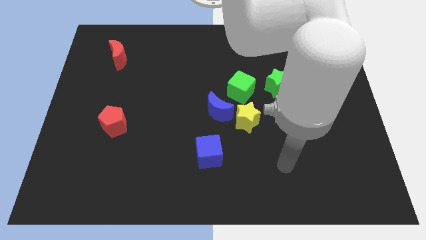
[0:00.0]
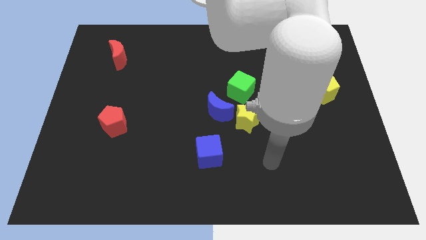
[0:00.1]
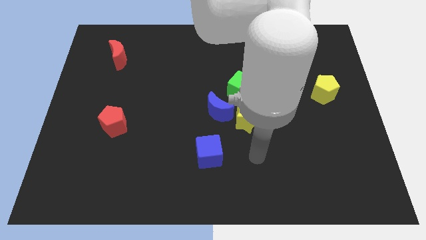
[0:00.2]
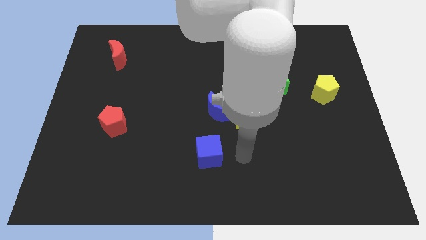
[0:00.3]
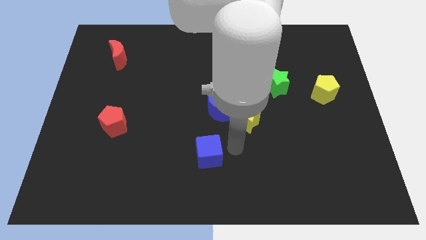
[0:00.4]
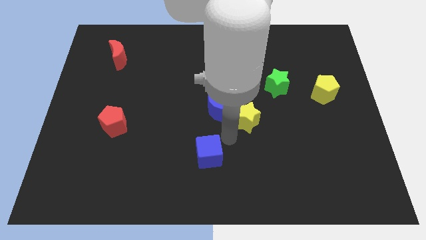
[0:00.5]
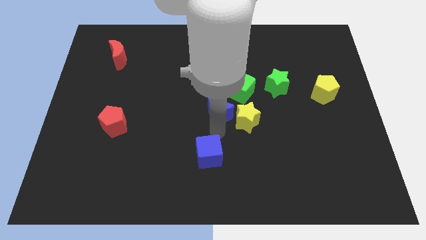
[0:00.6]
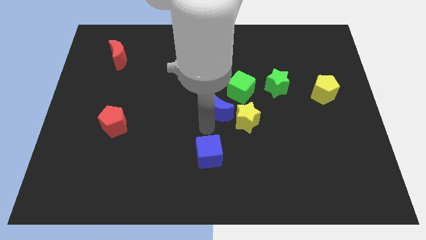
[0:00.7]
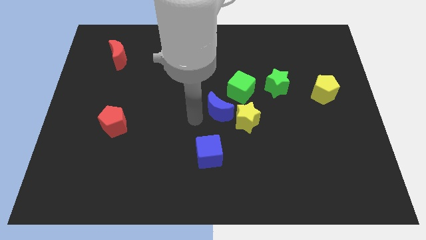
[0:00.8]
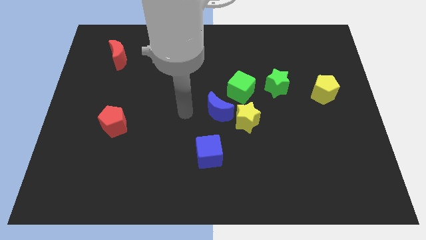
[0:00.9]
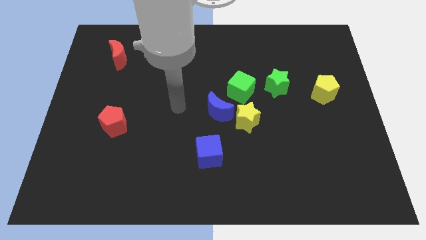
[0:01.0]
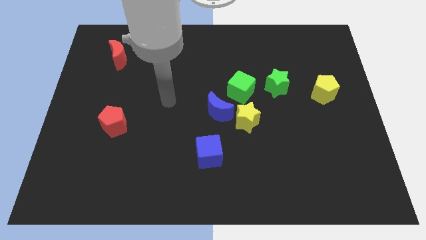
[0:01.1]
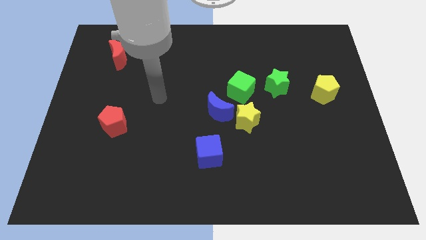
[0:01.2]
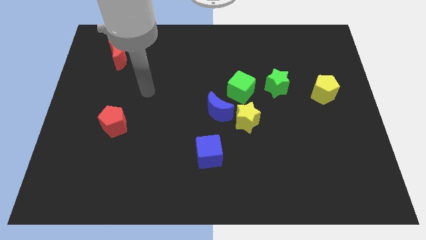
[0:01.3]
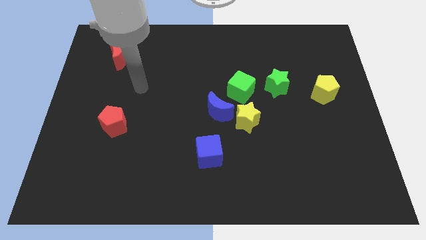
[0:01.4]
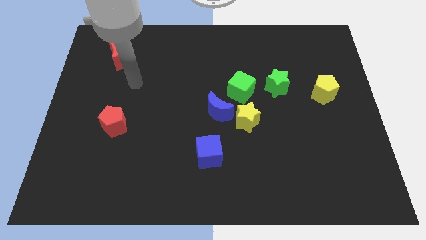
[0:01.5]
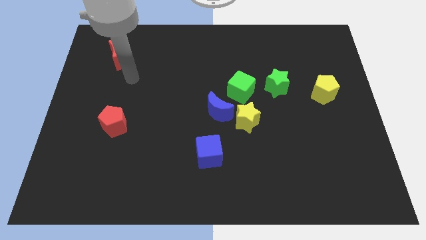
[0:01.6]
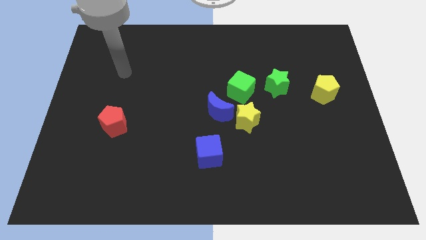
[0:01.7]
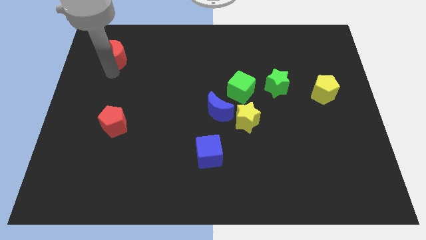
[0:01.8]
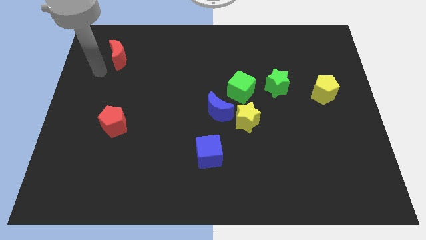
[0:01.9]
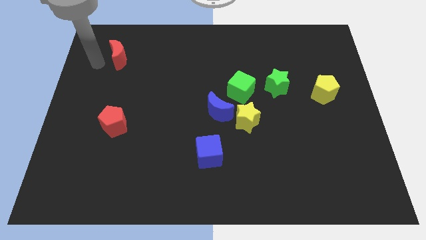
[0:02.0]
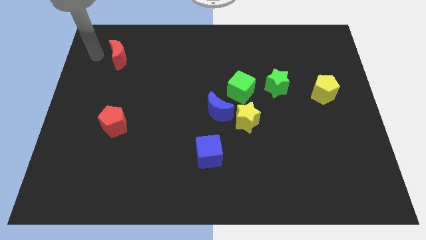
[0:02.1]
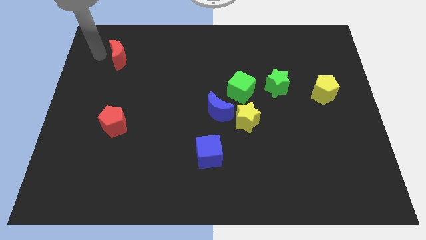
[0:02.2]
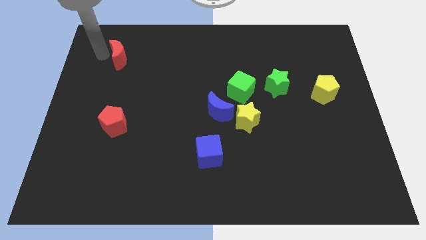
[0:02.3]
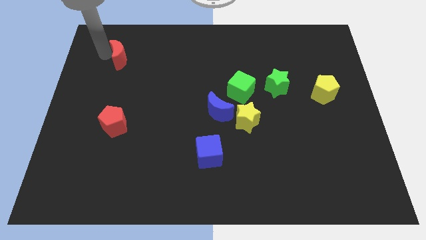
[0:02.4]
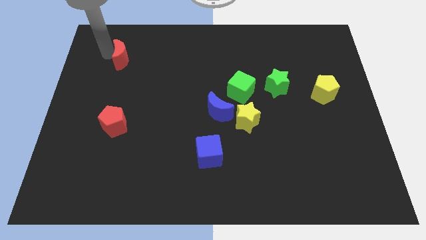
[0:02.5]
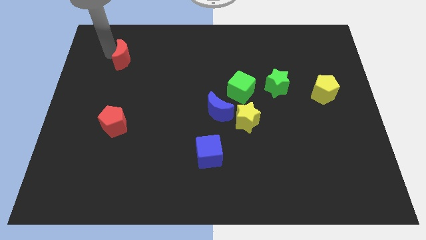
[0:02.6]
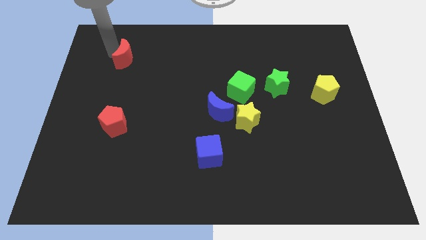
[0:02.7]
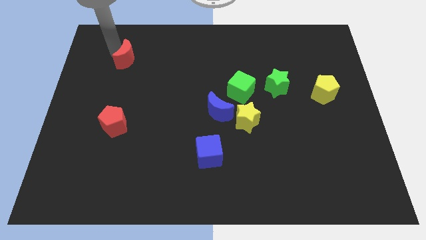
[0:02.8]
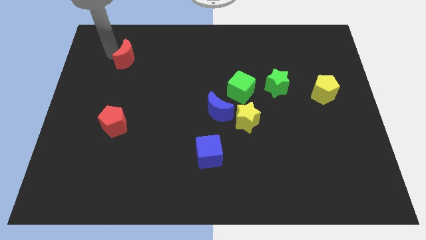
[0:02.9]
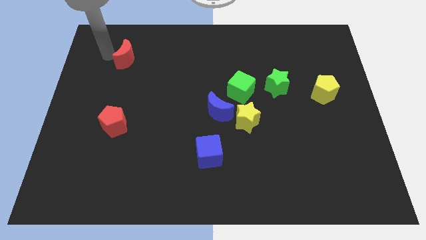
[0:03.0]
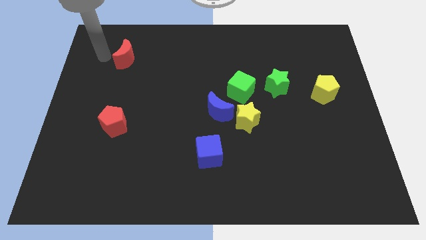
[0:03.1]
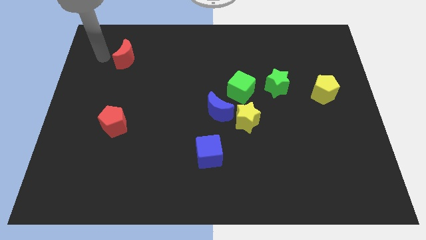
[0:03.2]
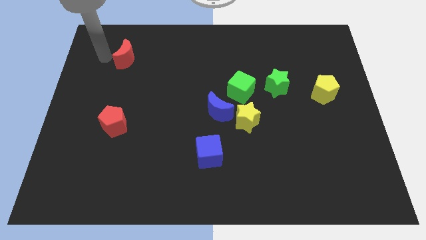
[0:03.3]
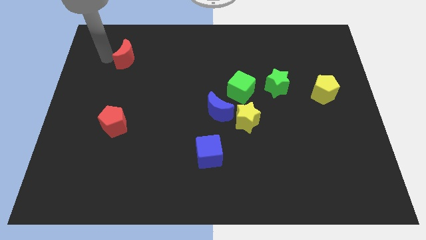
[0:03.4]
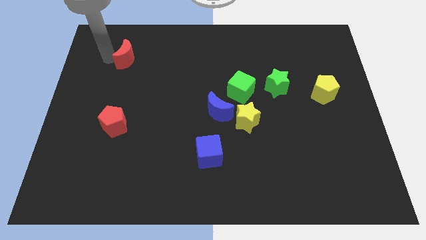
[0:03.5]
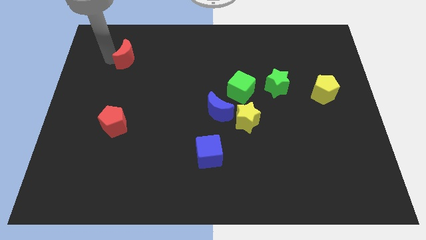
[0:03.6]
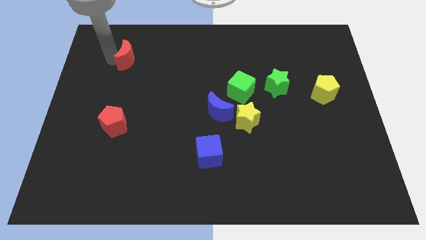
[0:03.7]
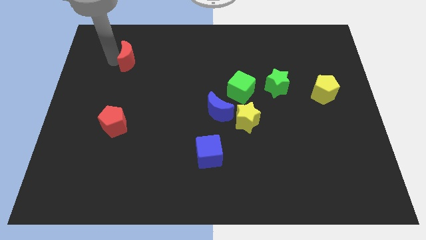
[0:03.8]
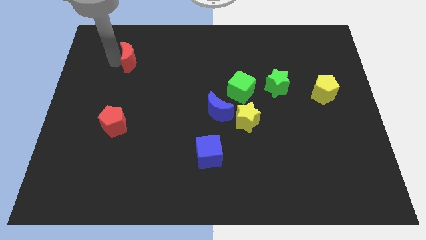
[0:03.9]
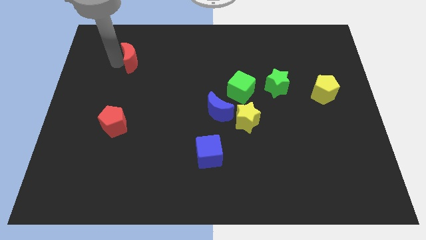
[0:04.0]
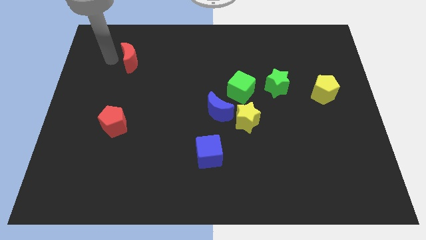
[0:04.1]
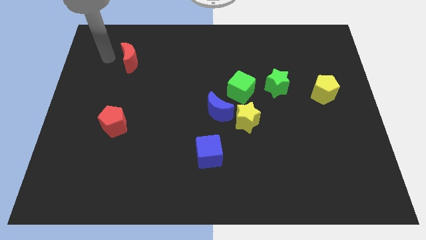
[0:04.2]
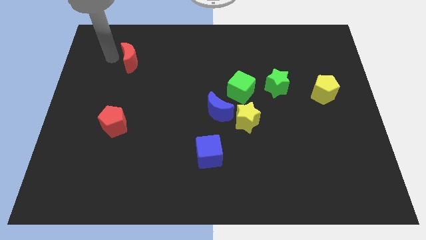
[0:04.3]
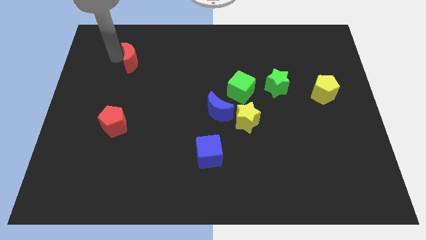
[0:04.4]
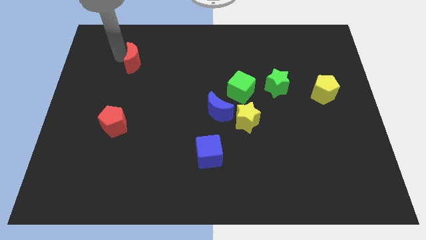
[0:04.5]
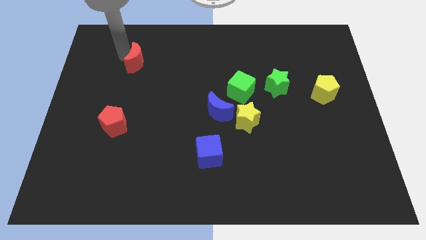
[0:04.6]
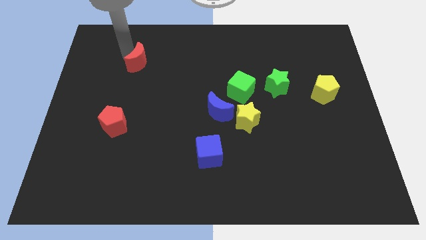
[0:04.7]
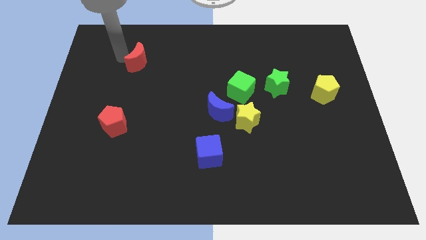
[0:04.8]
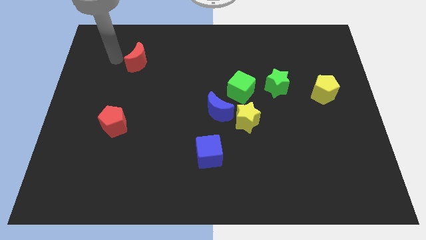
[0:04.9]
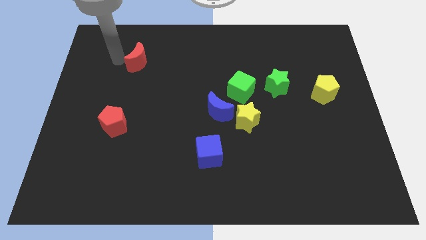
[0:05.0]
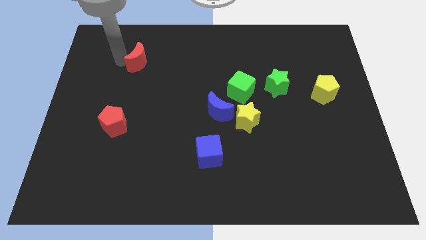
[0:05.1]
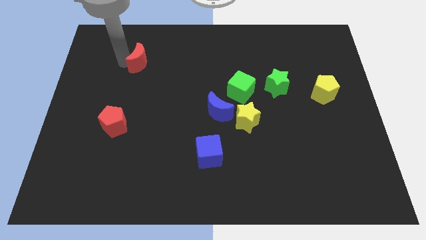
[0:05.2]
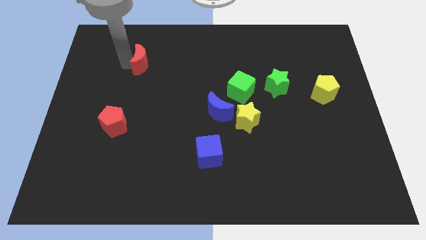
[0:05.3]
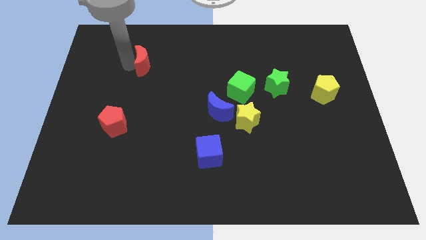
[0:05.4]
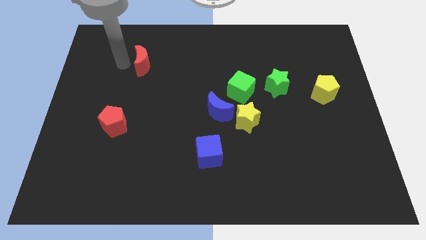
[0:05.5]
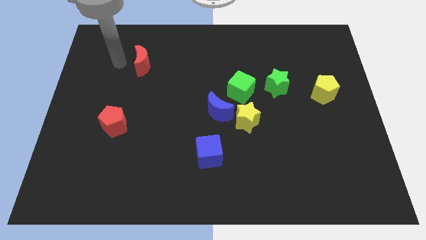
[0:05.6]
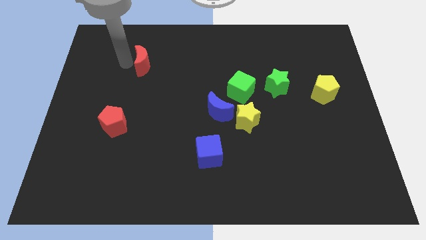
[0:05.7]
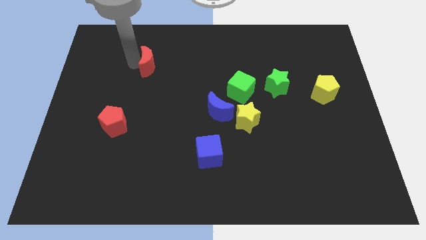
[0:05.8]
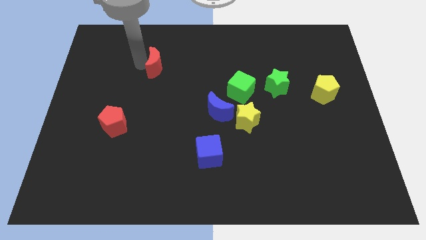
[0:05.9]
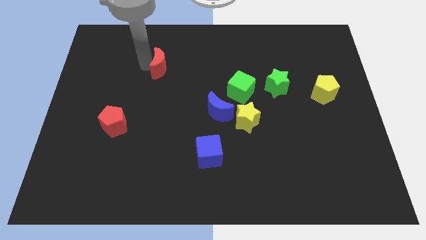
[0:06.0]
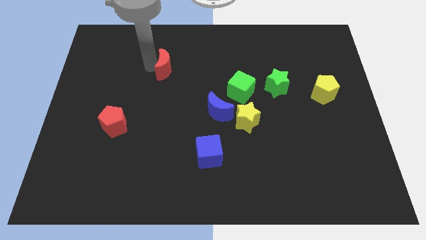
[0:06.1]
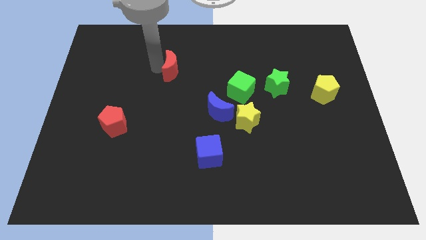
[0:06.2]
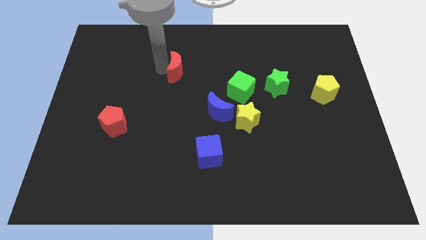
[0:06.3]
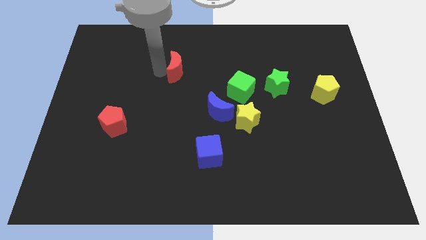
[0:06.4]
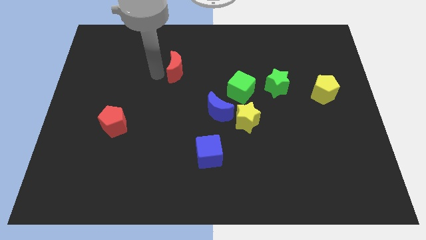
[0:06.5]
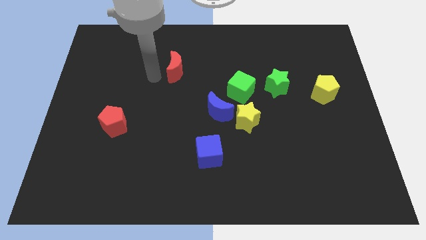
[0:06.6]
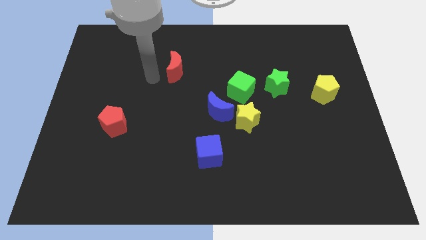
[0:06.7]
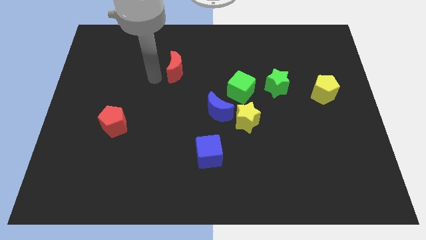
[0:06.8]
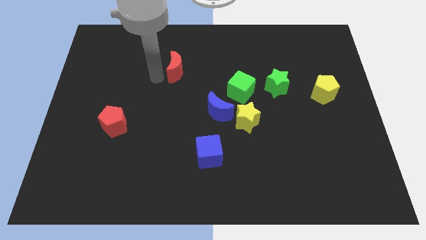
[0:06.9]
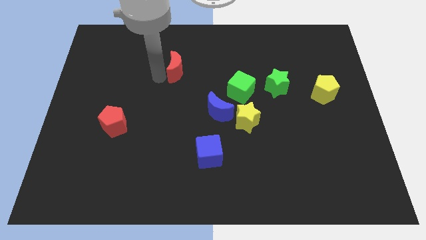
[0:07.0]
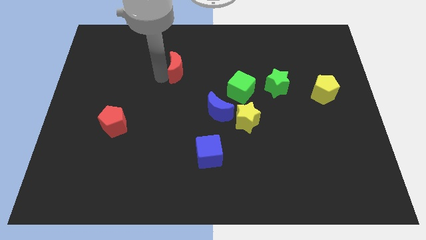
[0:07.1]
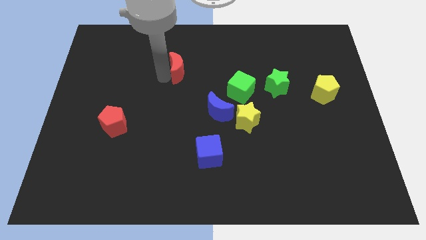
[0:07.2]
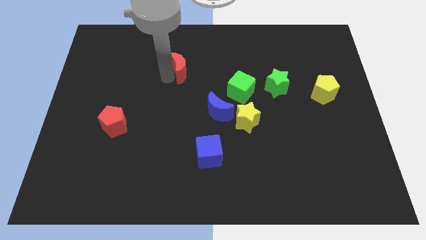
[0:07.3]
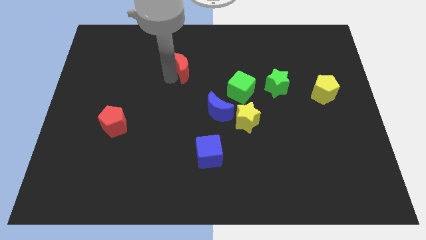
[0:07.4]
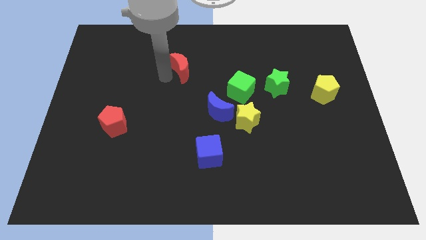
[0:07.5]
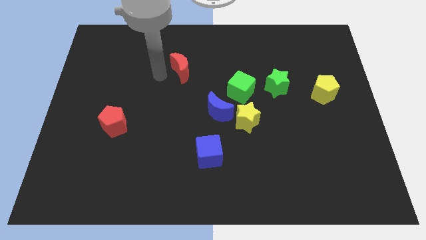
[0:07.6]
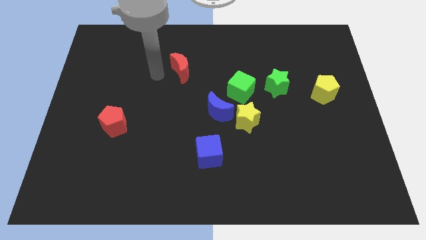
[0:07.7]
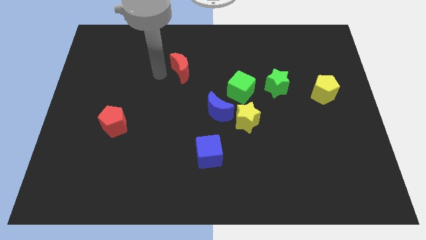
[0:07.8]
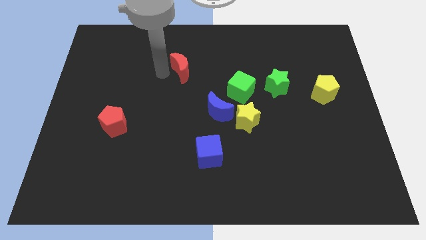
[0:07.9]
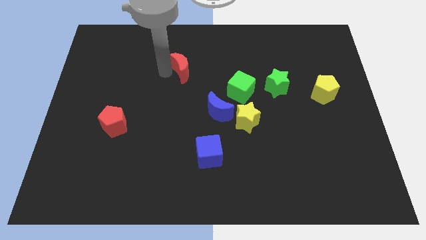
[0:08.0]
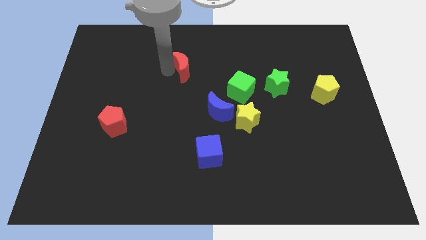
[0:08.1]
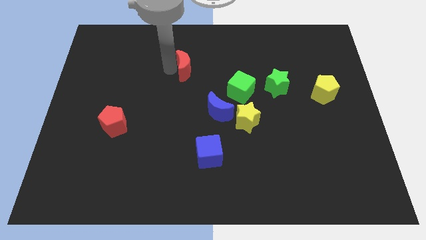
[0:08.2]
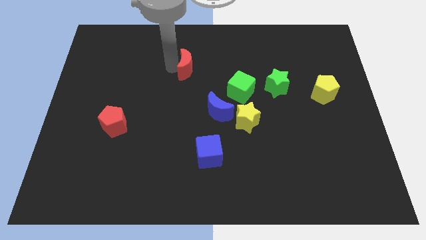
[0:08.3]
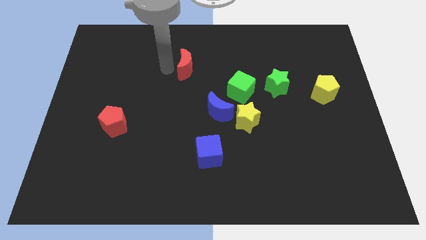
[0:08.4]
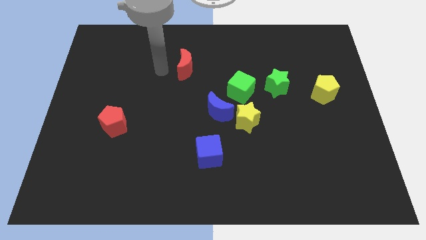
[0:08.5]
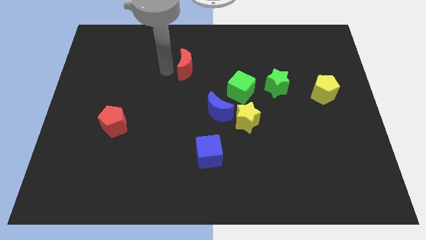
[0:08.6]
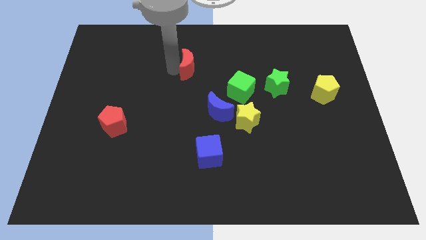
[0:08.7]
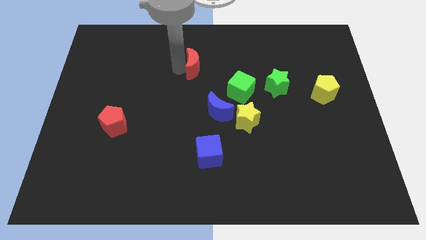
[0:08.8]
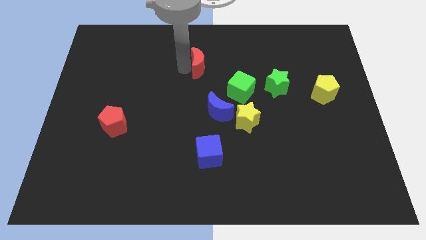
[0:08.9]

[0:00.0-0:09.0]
slide the red moon right
